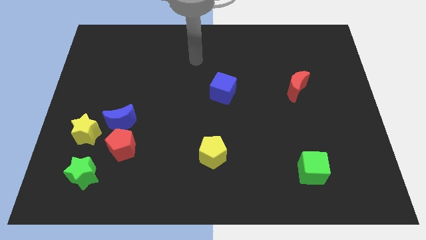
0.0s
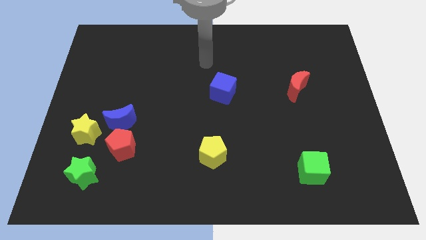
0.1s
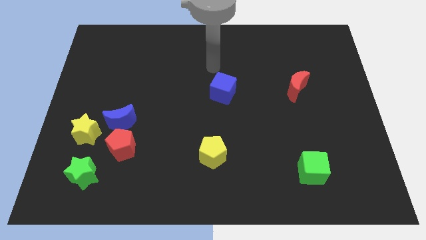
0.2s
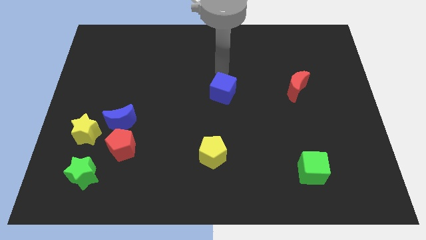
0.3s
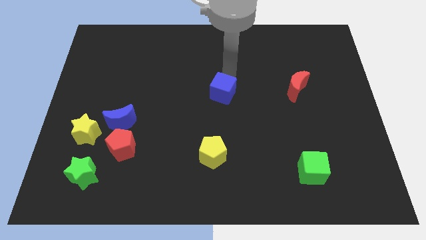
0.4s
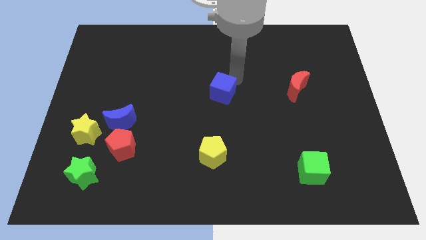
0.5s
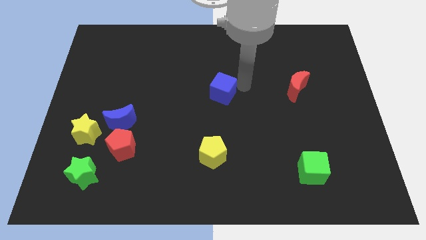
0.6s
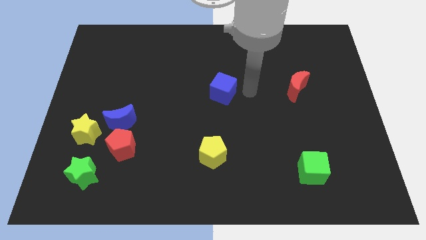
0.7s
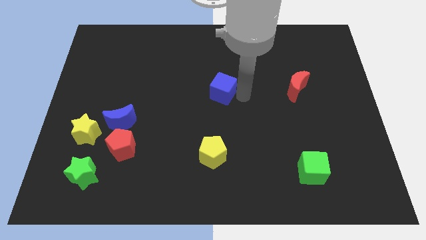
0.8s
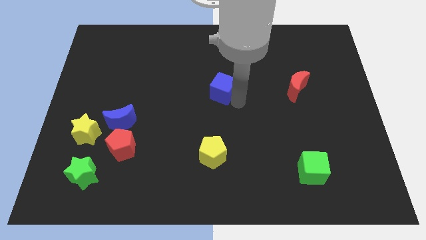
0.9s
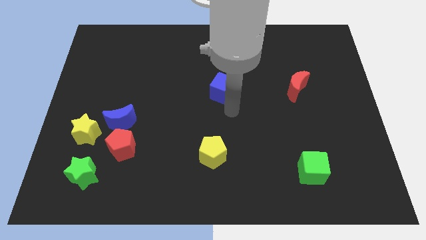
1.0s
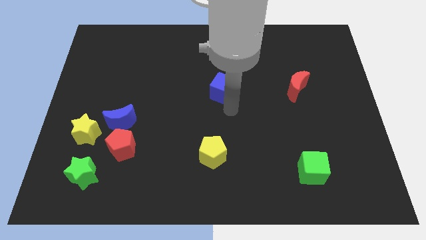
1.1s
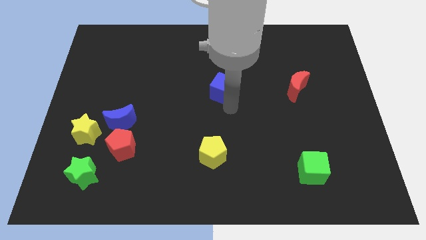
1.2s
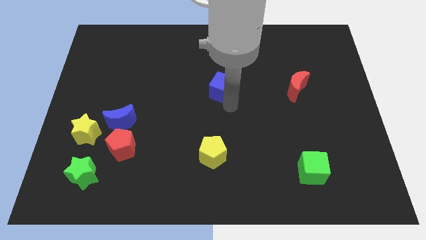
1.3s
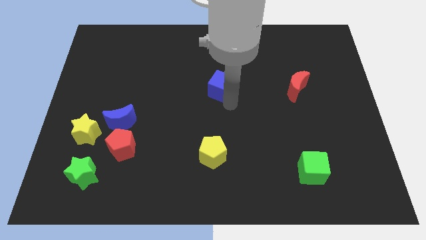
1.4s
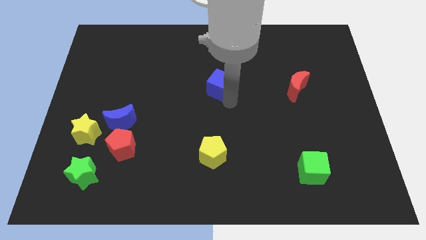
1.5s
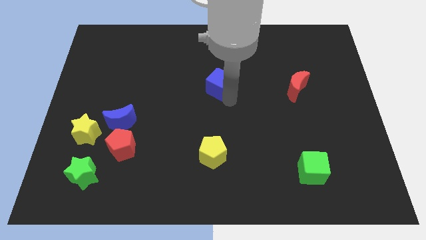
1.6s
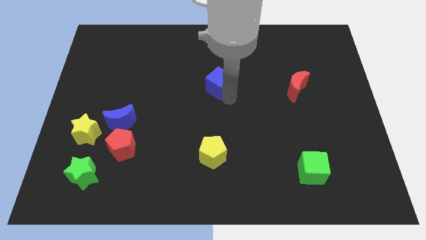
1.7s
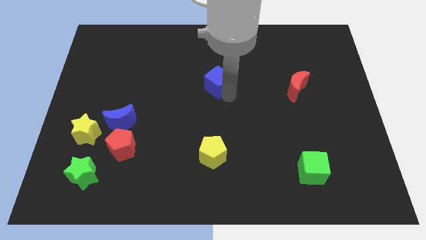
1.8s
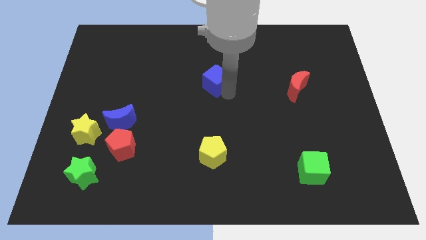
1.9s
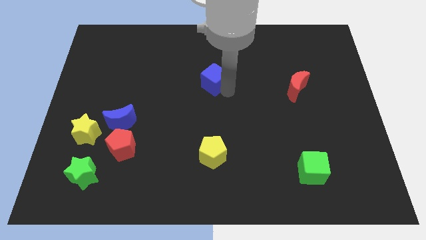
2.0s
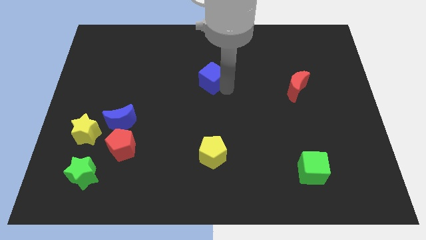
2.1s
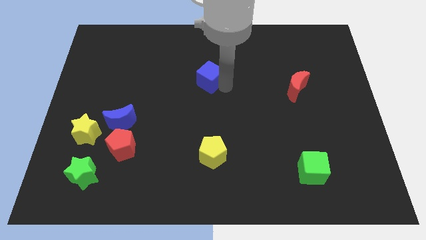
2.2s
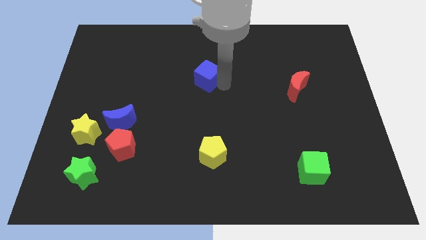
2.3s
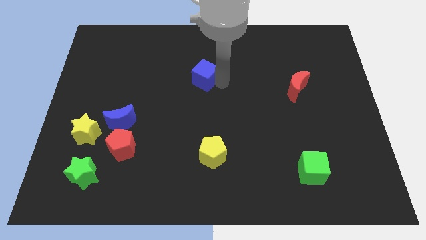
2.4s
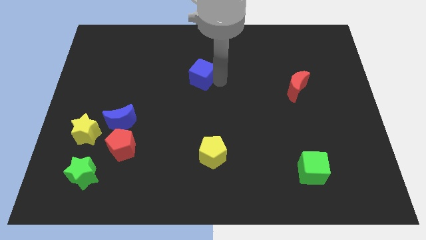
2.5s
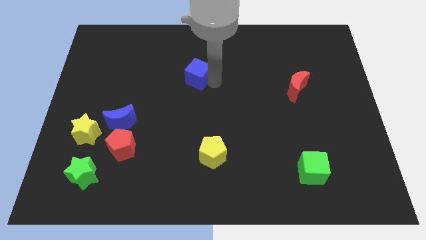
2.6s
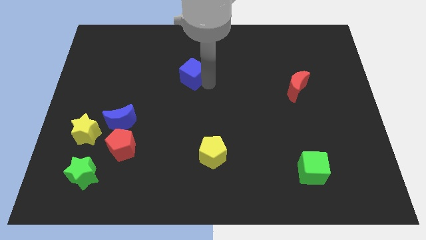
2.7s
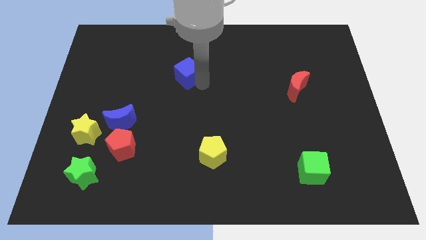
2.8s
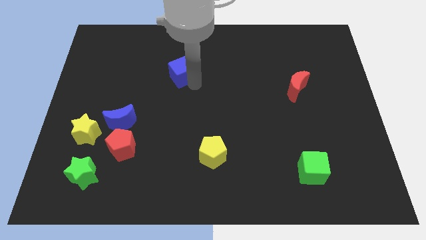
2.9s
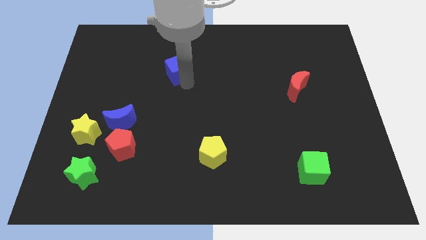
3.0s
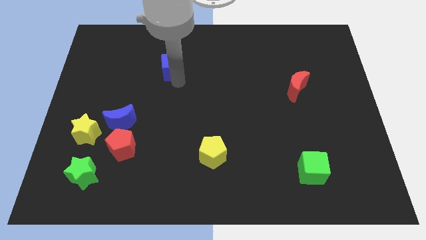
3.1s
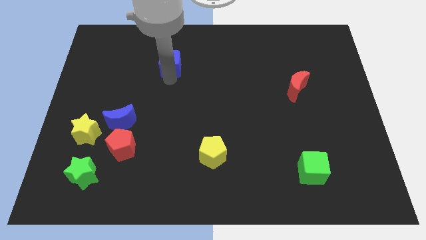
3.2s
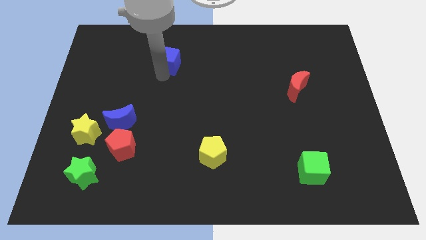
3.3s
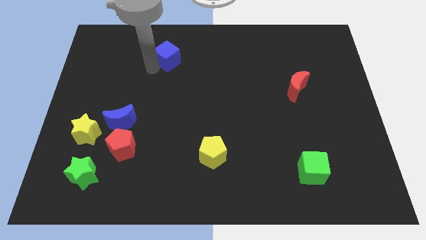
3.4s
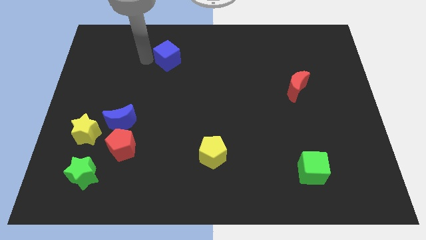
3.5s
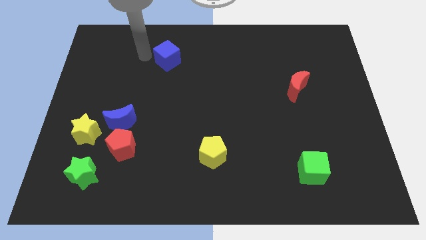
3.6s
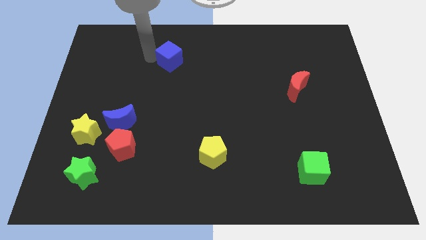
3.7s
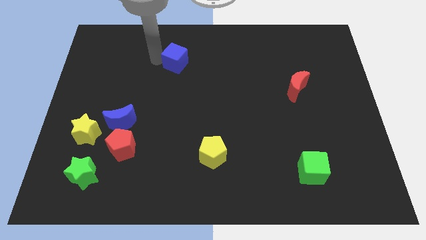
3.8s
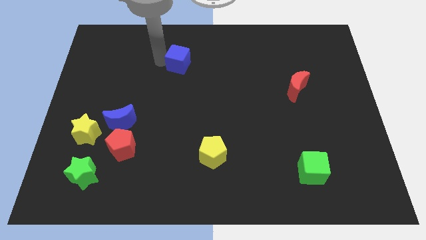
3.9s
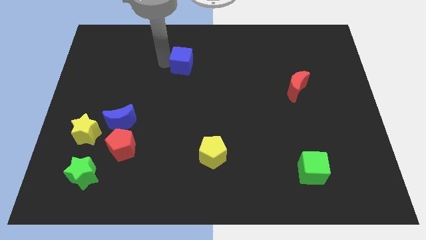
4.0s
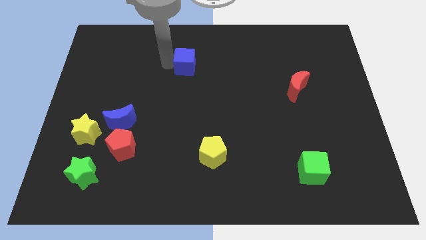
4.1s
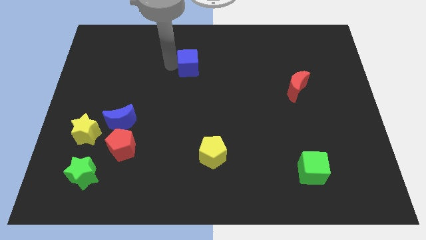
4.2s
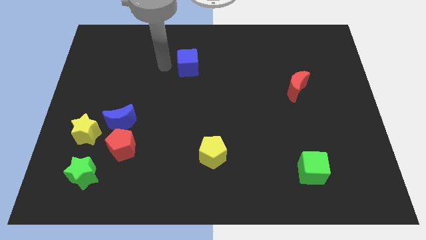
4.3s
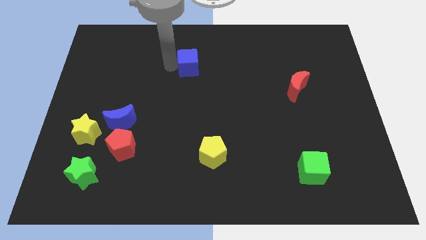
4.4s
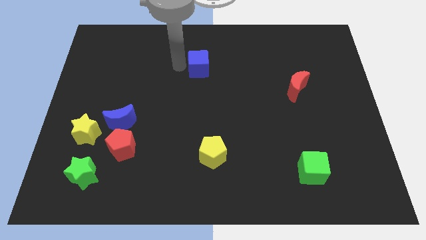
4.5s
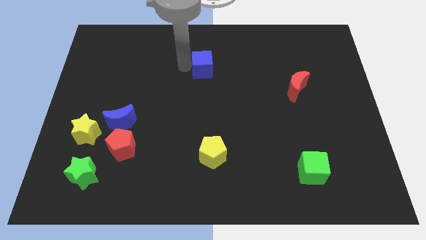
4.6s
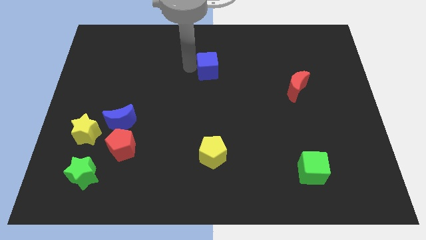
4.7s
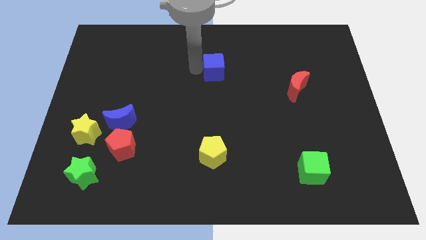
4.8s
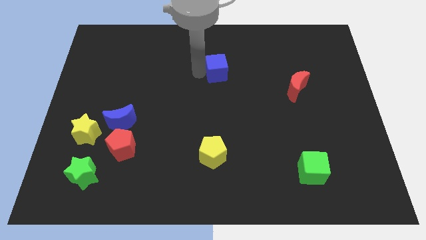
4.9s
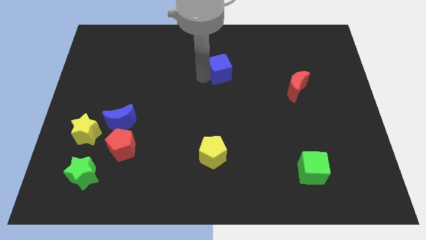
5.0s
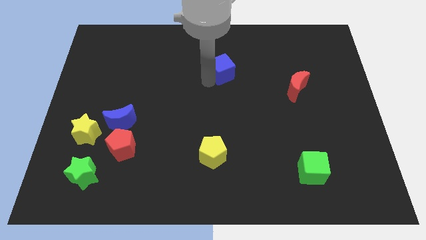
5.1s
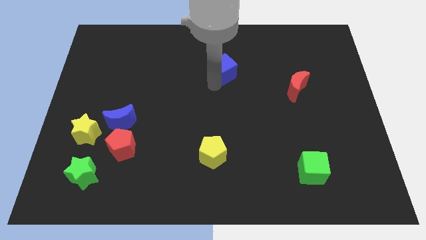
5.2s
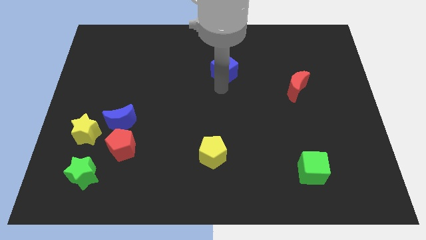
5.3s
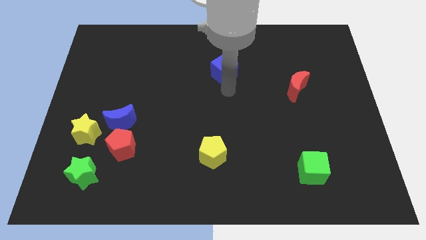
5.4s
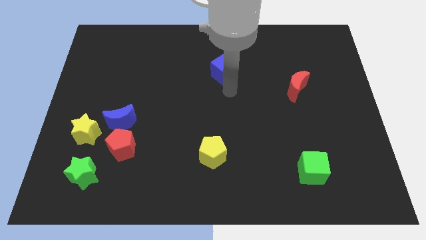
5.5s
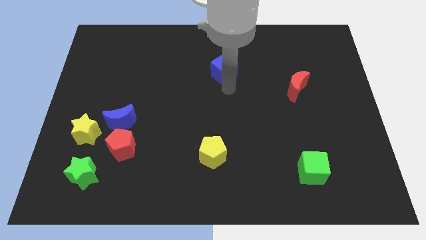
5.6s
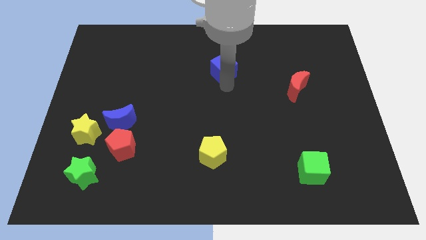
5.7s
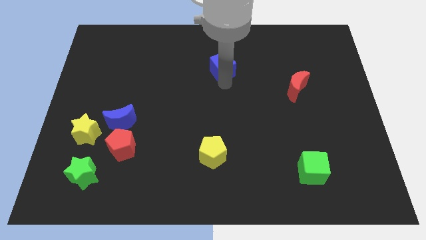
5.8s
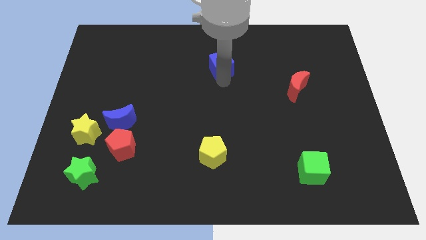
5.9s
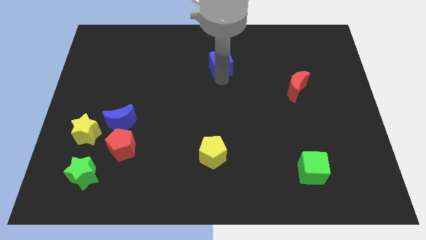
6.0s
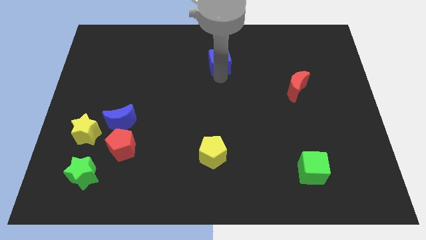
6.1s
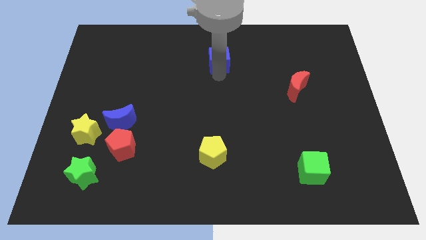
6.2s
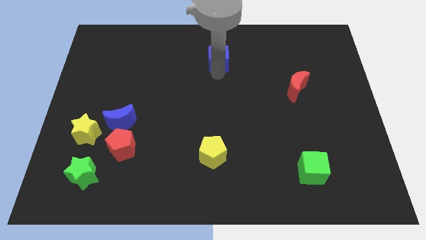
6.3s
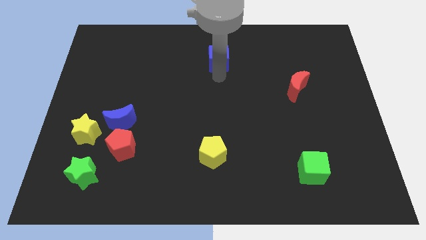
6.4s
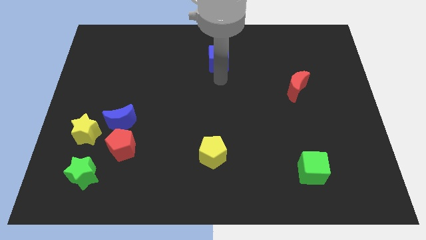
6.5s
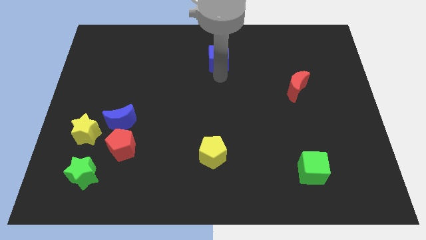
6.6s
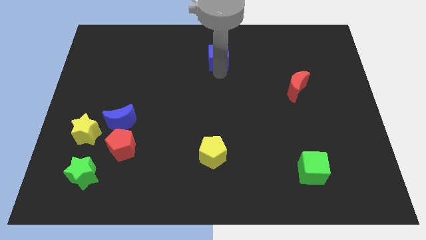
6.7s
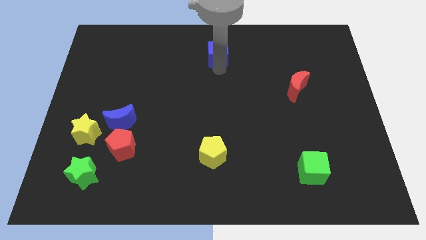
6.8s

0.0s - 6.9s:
move the blue cube to the top side

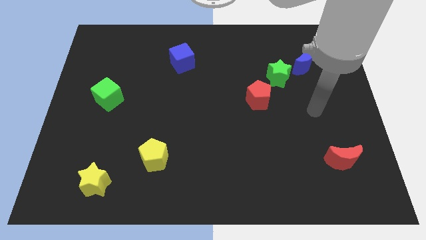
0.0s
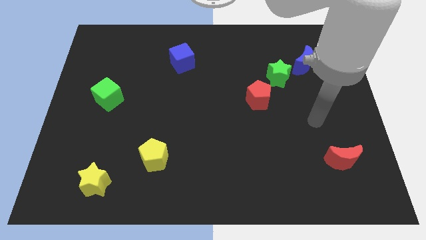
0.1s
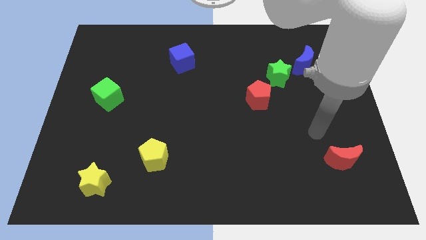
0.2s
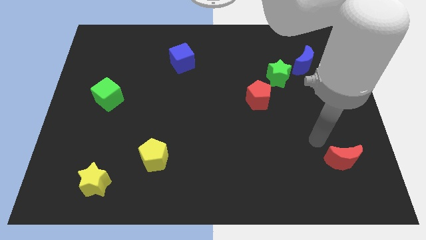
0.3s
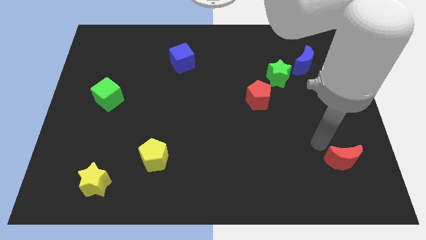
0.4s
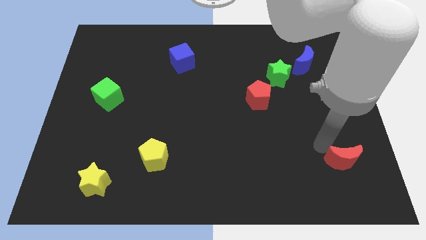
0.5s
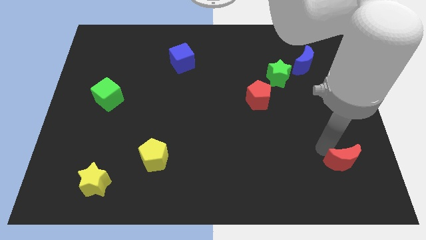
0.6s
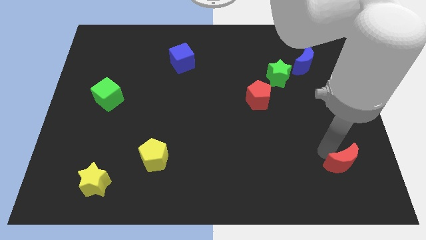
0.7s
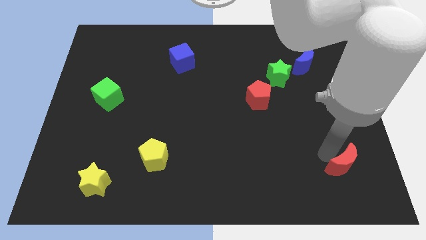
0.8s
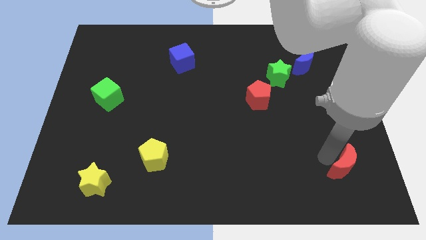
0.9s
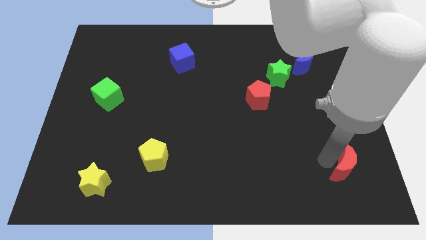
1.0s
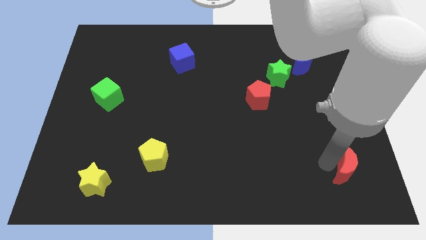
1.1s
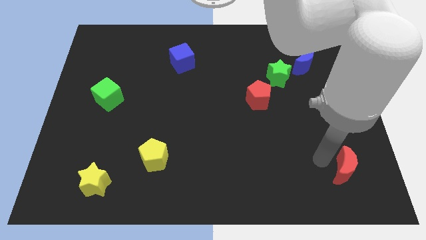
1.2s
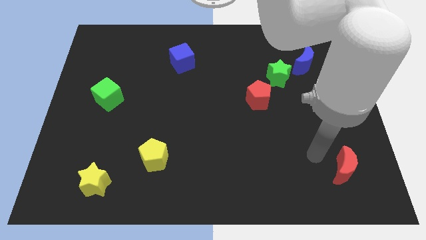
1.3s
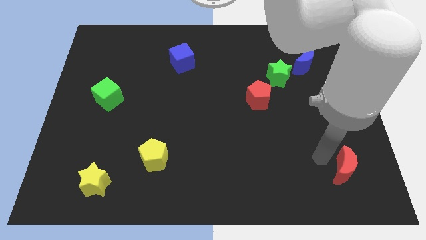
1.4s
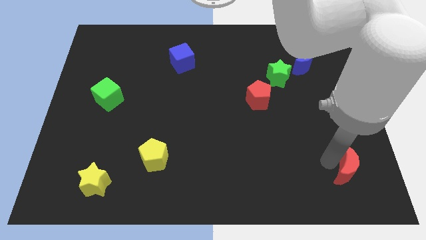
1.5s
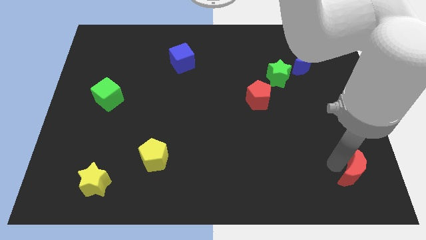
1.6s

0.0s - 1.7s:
push the red moon to the lower right corner
